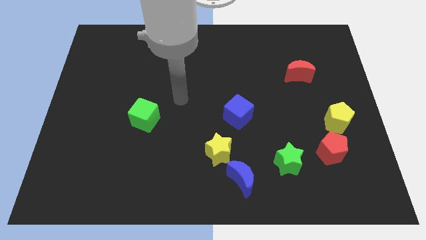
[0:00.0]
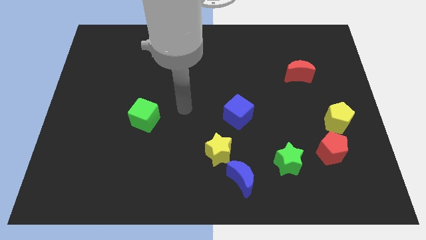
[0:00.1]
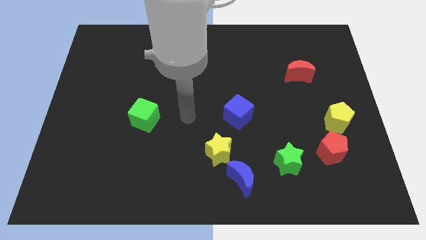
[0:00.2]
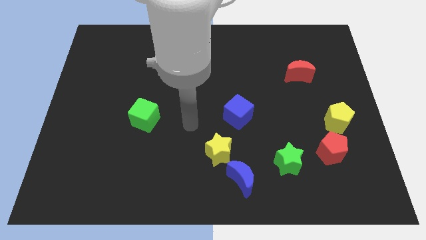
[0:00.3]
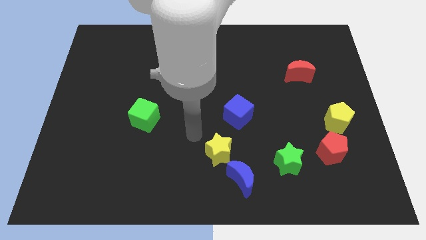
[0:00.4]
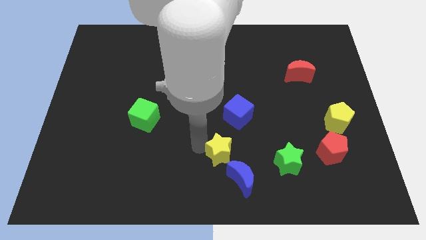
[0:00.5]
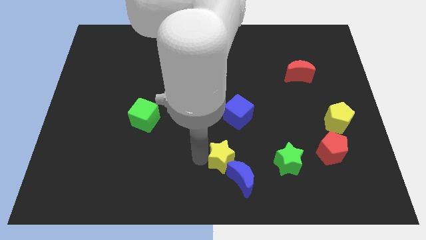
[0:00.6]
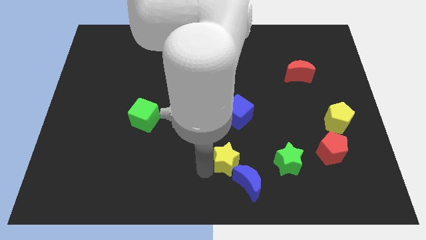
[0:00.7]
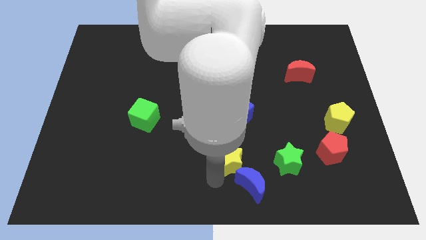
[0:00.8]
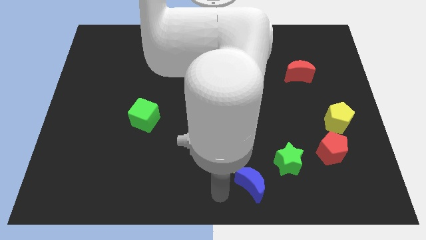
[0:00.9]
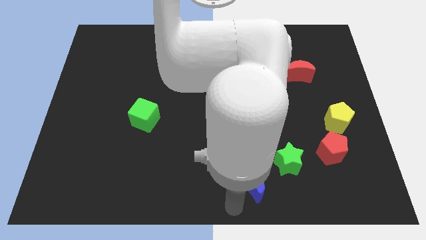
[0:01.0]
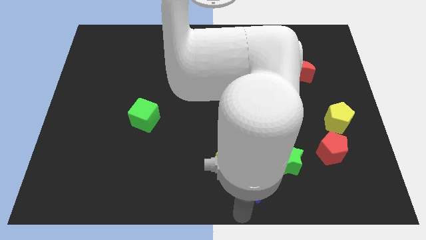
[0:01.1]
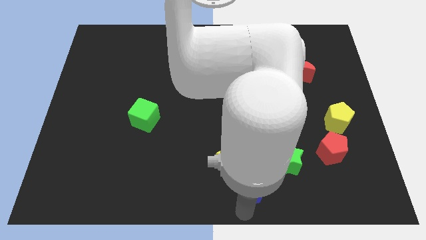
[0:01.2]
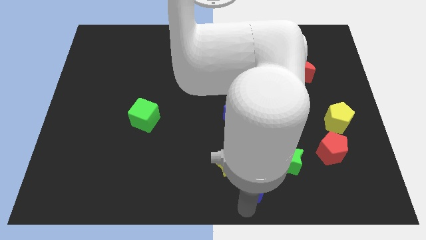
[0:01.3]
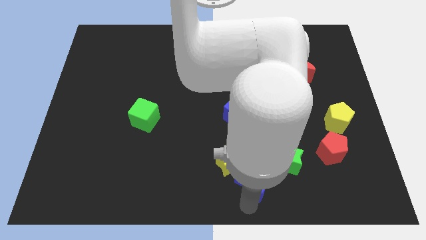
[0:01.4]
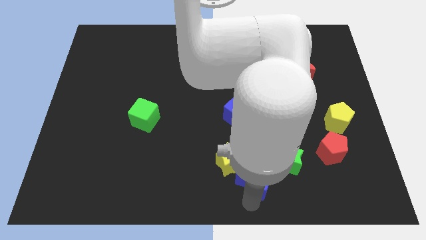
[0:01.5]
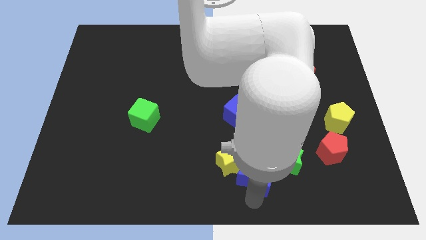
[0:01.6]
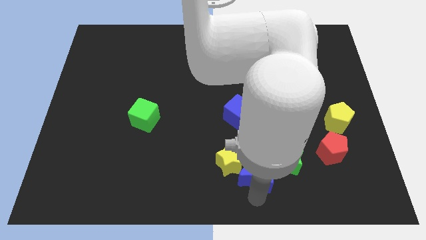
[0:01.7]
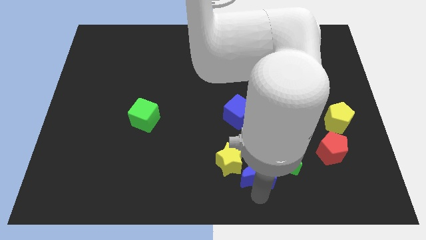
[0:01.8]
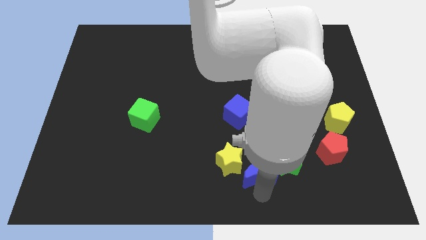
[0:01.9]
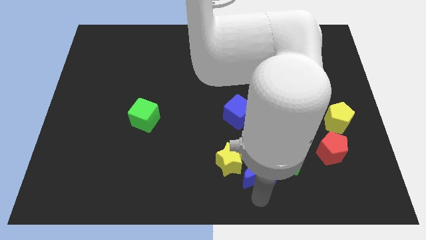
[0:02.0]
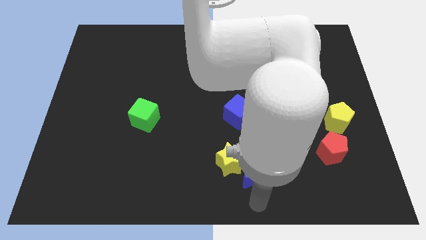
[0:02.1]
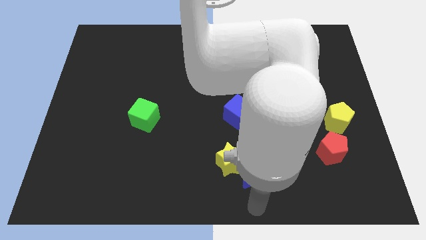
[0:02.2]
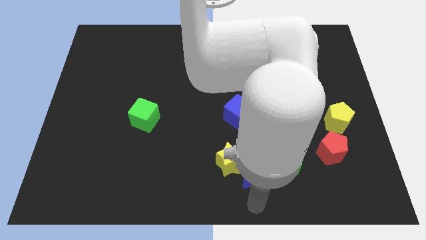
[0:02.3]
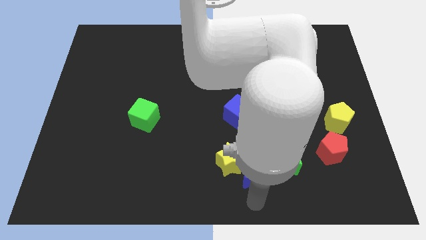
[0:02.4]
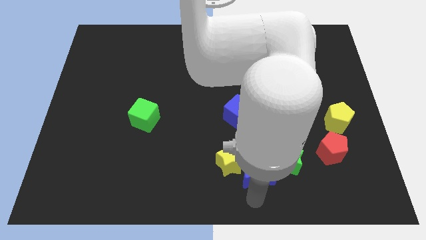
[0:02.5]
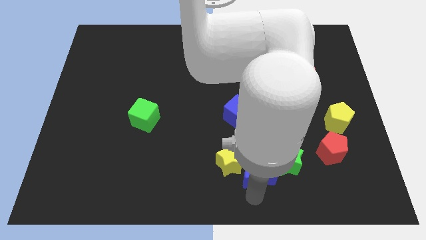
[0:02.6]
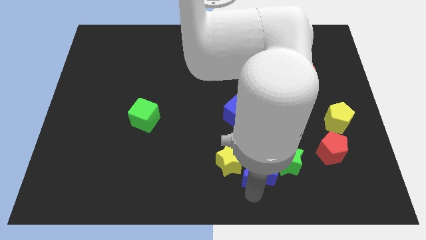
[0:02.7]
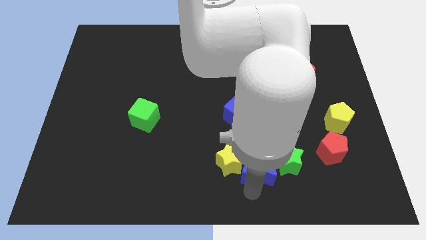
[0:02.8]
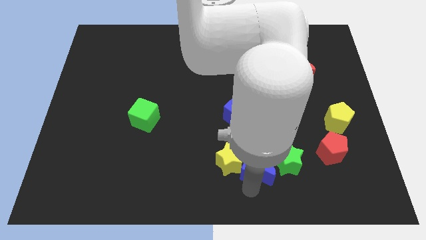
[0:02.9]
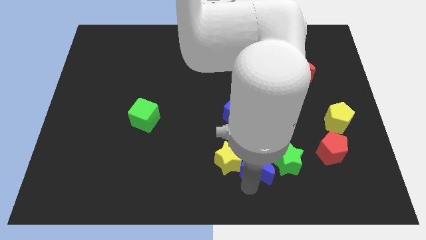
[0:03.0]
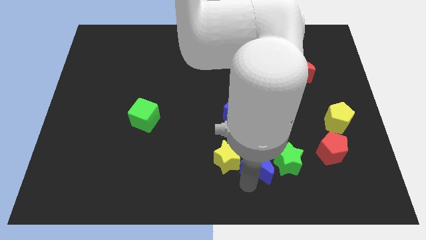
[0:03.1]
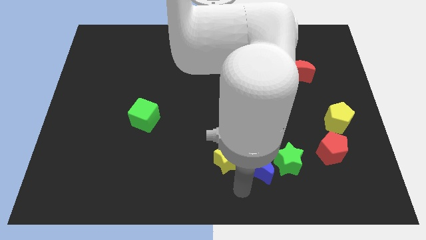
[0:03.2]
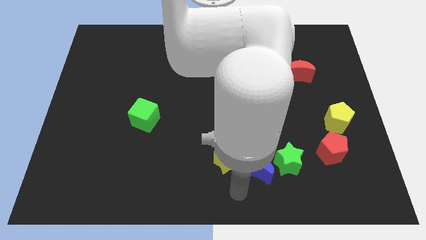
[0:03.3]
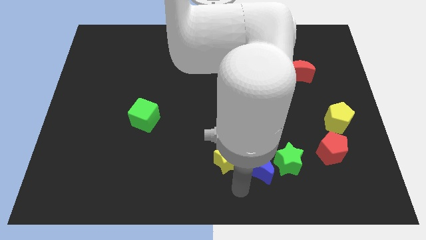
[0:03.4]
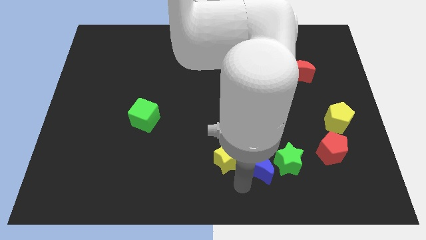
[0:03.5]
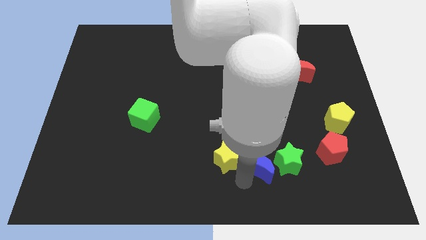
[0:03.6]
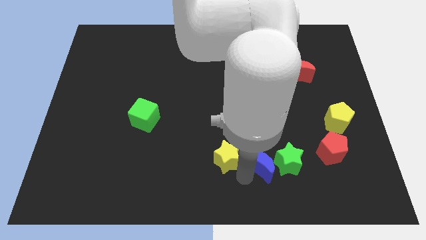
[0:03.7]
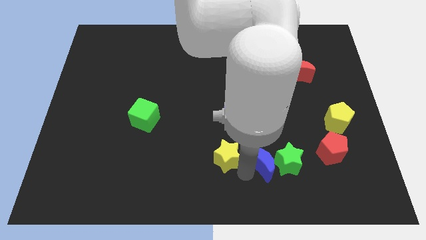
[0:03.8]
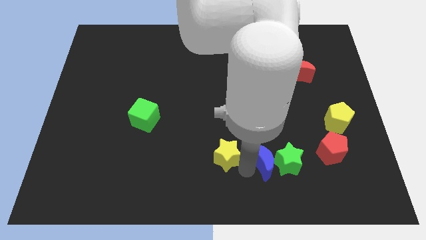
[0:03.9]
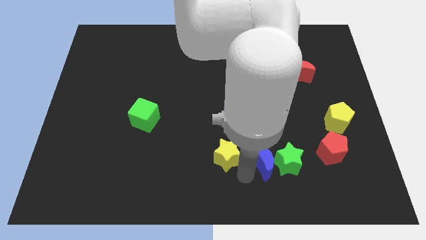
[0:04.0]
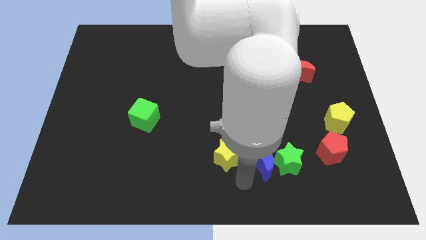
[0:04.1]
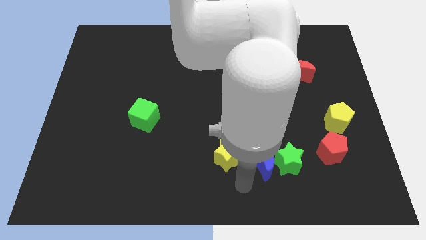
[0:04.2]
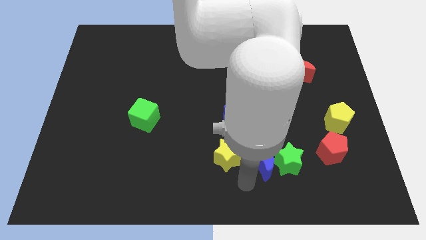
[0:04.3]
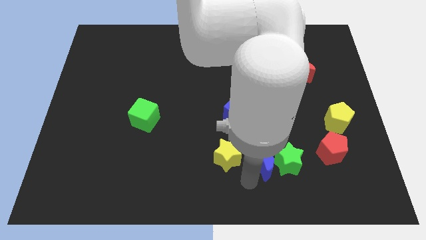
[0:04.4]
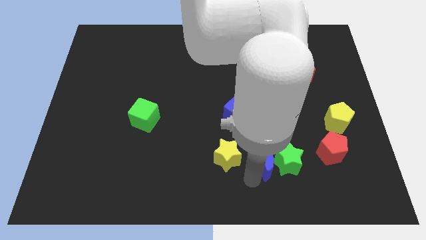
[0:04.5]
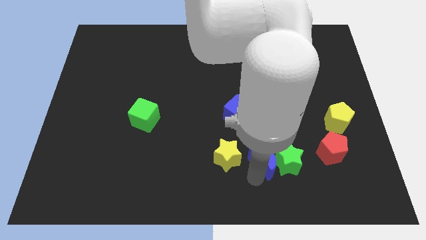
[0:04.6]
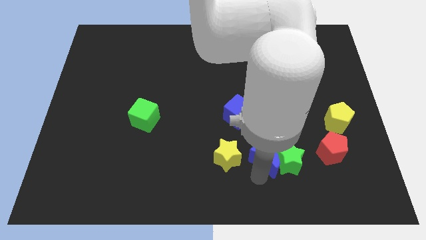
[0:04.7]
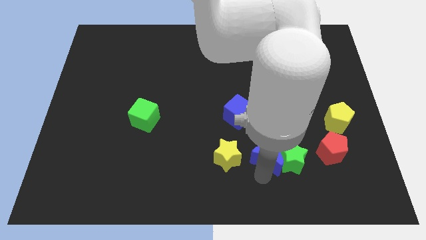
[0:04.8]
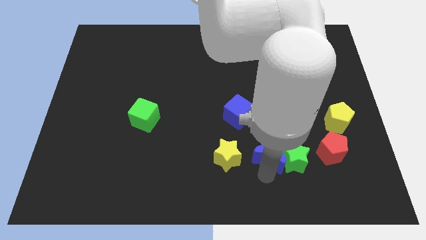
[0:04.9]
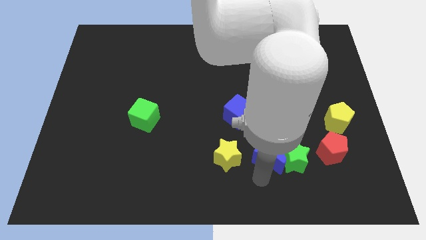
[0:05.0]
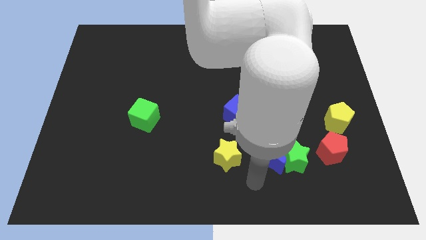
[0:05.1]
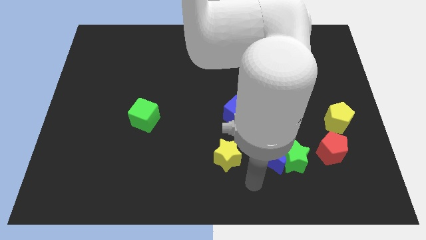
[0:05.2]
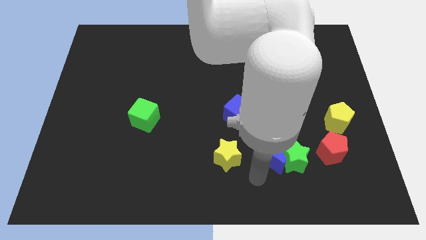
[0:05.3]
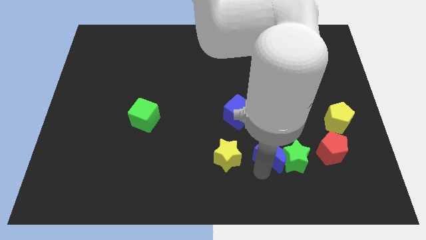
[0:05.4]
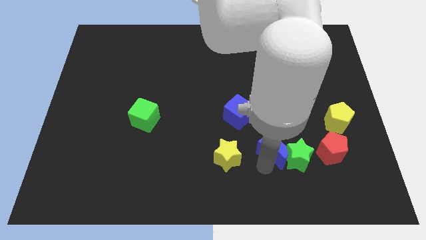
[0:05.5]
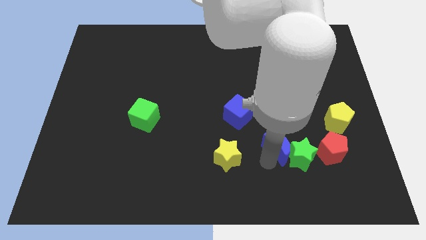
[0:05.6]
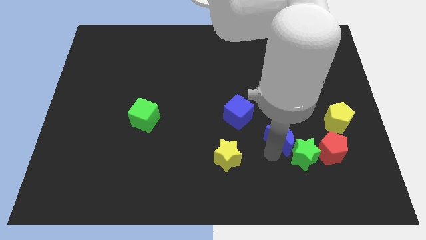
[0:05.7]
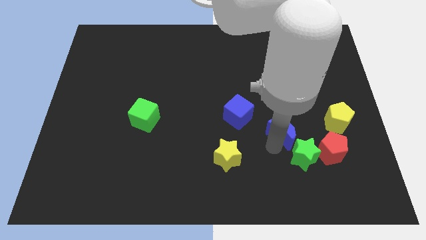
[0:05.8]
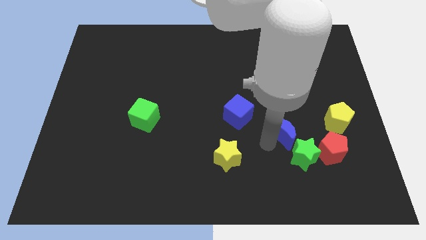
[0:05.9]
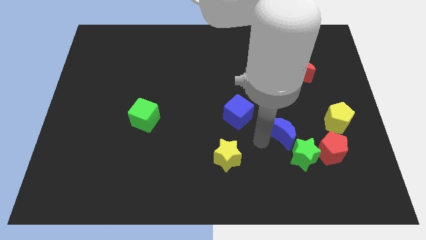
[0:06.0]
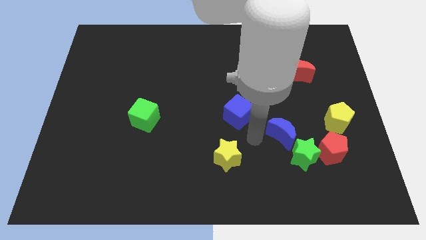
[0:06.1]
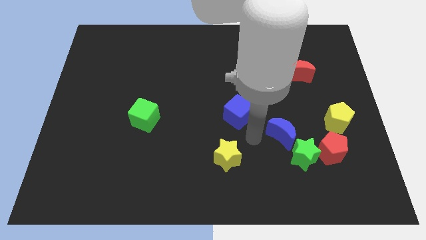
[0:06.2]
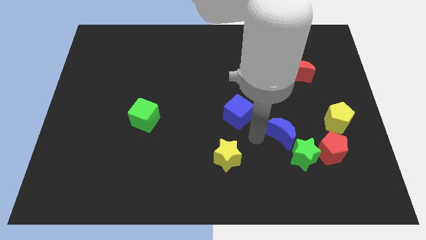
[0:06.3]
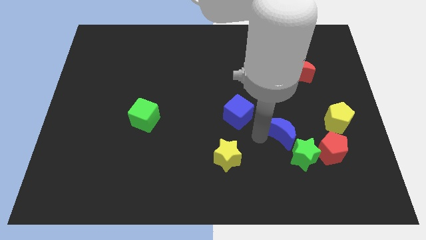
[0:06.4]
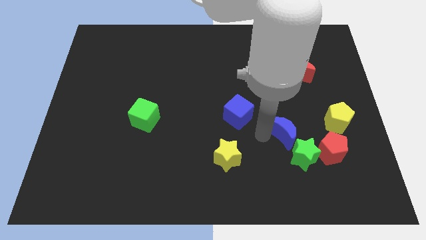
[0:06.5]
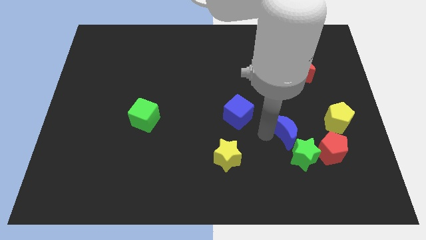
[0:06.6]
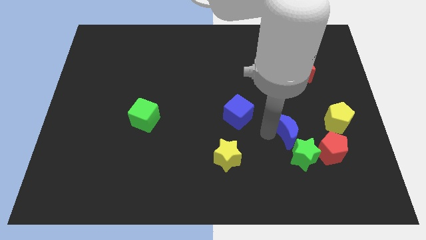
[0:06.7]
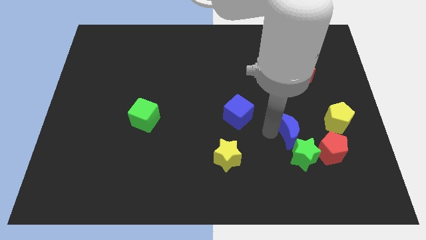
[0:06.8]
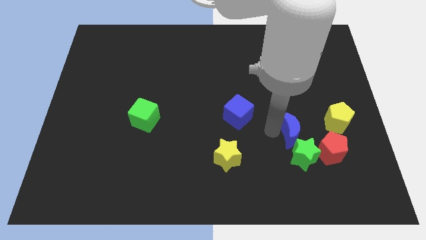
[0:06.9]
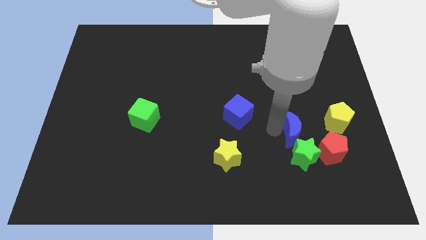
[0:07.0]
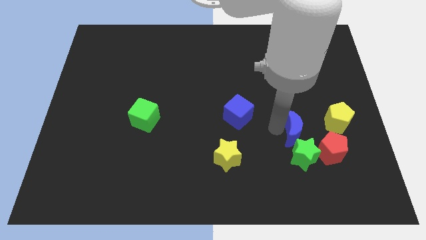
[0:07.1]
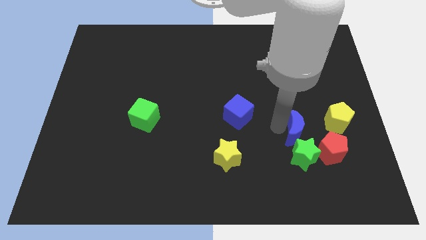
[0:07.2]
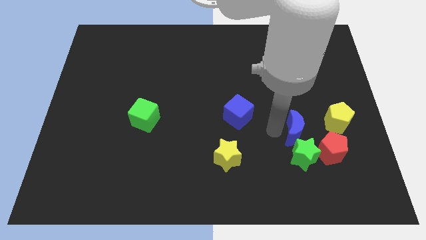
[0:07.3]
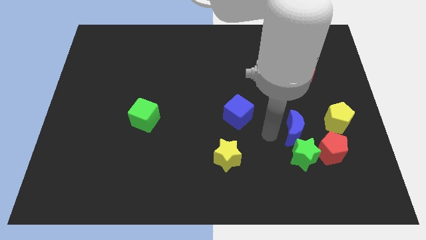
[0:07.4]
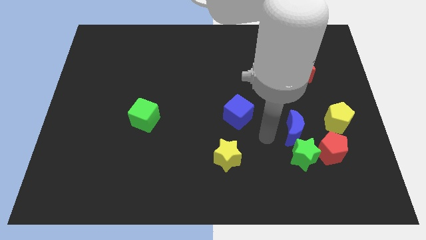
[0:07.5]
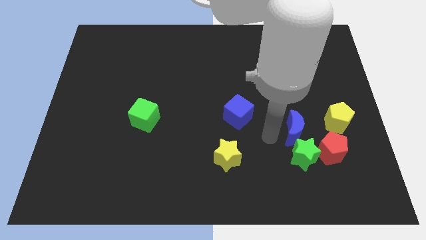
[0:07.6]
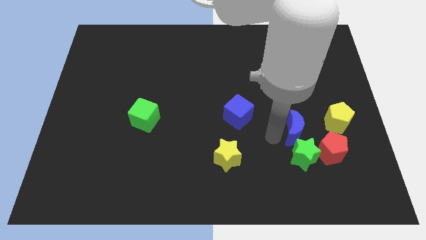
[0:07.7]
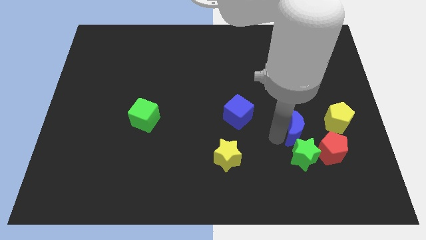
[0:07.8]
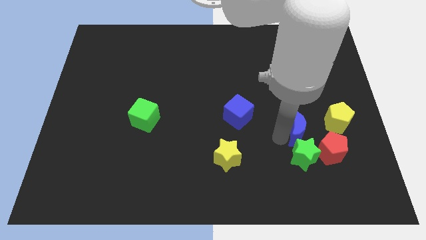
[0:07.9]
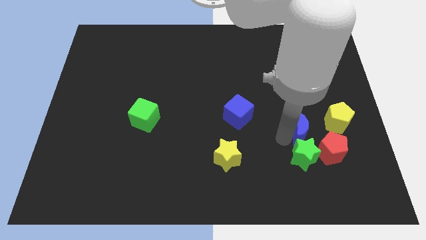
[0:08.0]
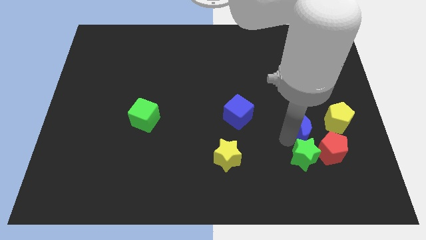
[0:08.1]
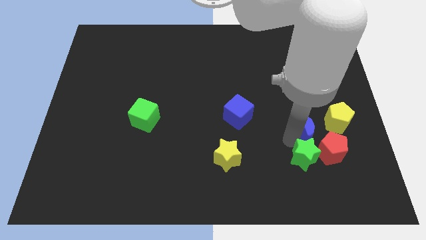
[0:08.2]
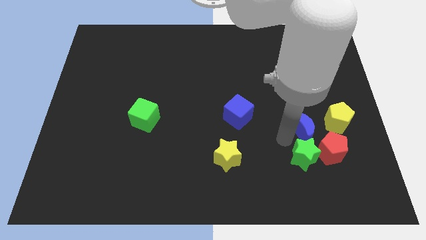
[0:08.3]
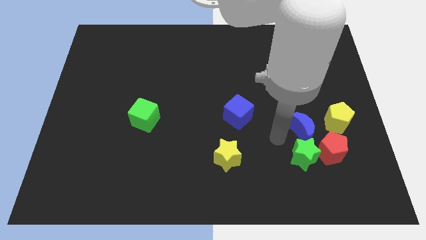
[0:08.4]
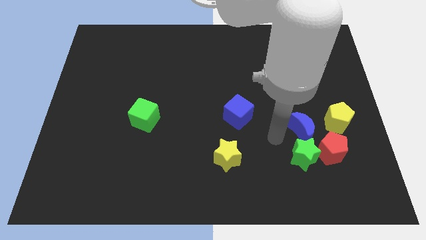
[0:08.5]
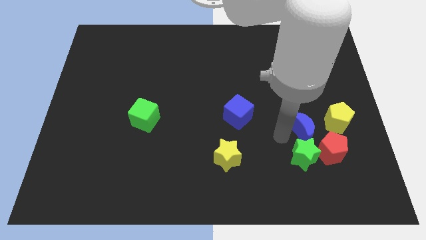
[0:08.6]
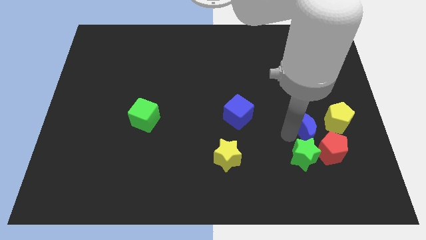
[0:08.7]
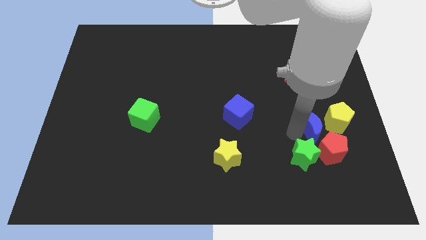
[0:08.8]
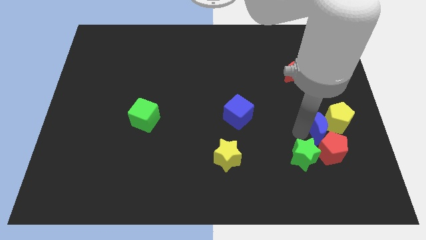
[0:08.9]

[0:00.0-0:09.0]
move the blue moon to the yellow pentagon
